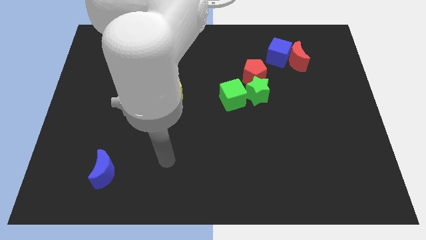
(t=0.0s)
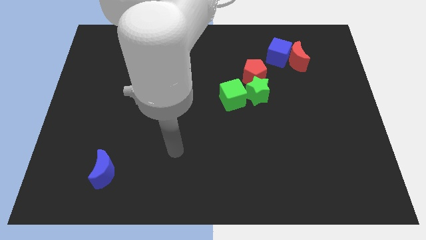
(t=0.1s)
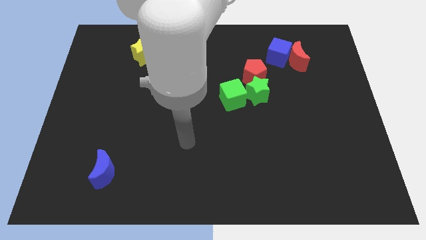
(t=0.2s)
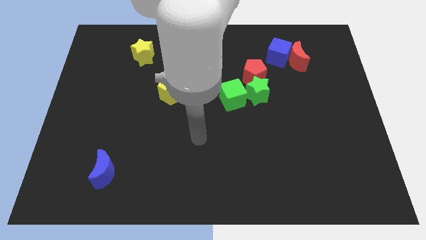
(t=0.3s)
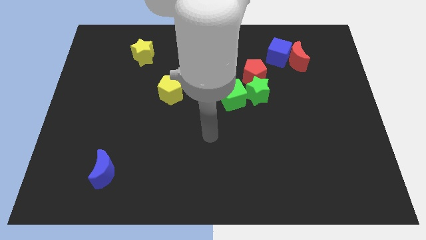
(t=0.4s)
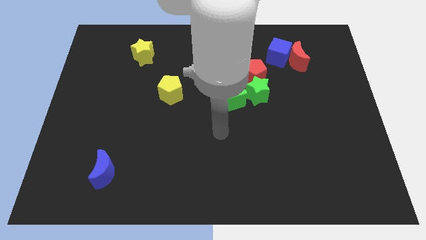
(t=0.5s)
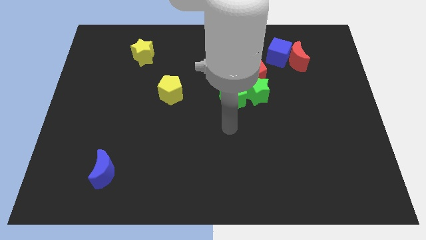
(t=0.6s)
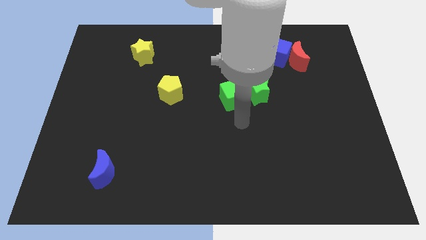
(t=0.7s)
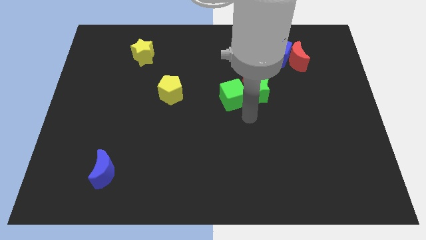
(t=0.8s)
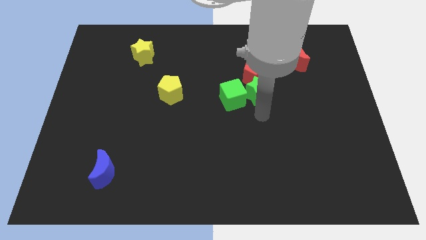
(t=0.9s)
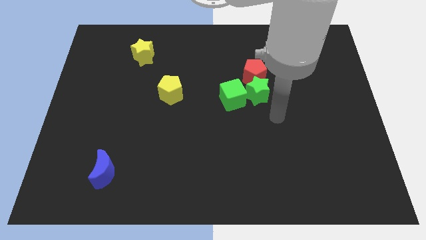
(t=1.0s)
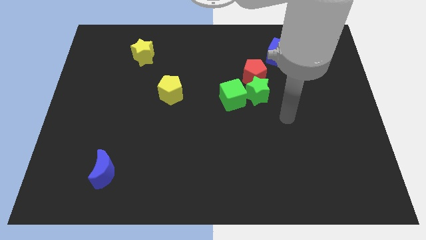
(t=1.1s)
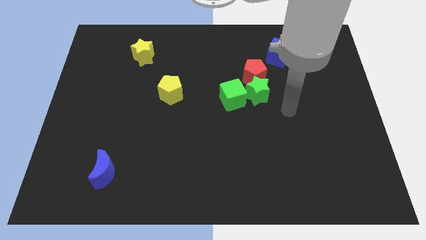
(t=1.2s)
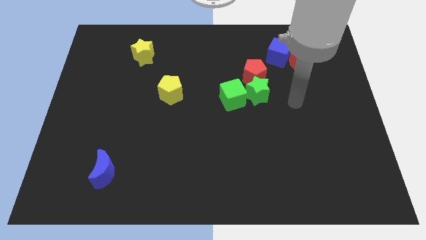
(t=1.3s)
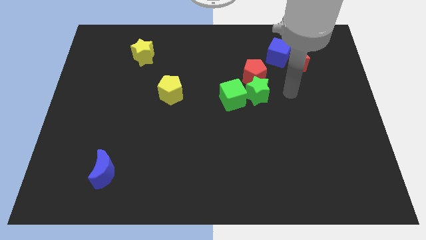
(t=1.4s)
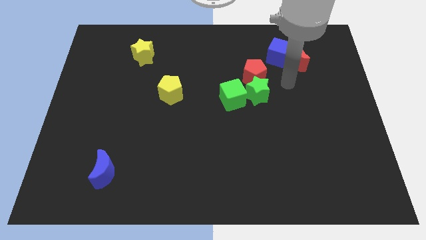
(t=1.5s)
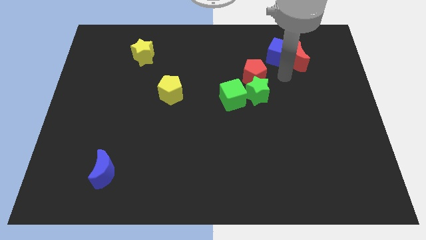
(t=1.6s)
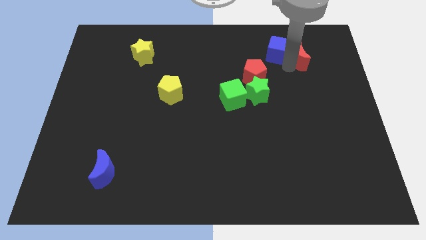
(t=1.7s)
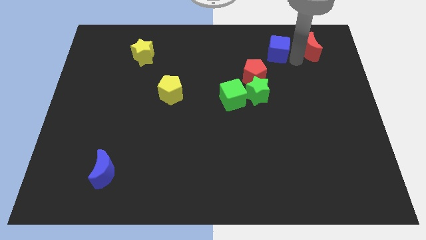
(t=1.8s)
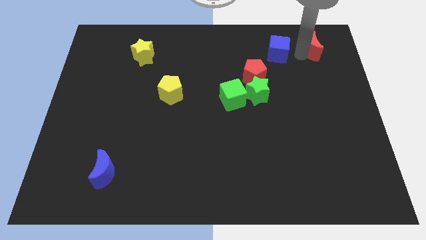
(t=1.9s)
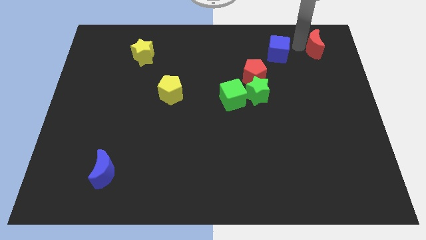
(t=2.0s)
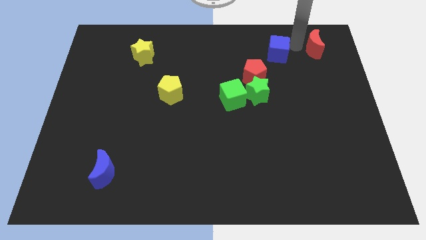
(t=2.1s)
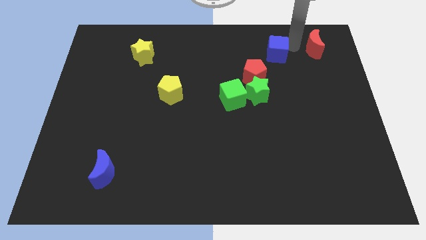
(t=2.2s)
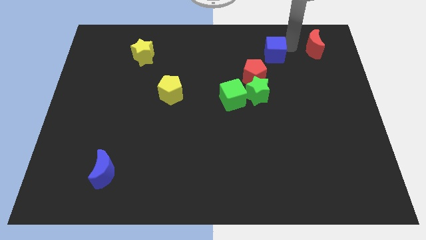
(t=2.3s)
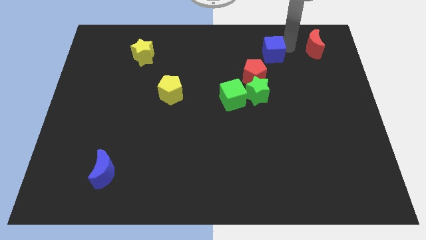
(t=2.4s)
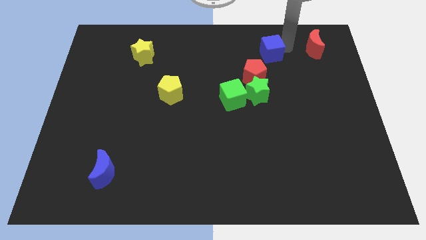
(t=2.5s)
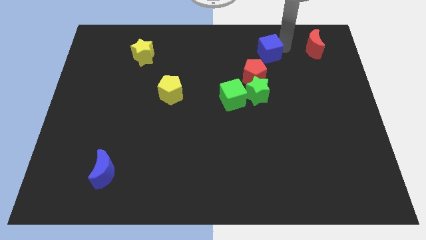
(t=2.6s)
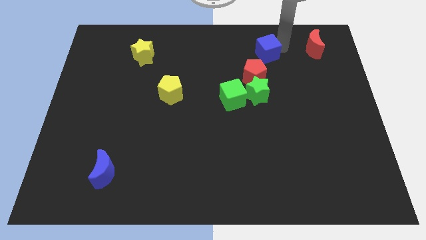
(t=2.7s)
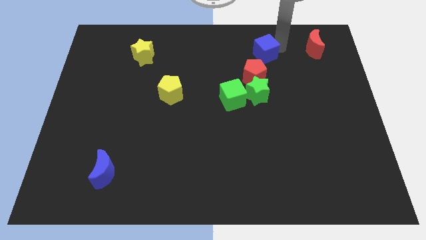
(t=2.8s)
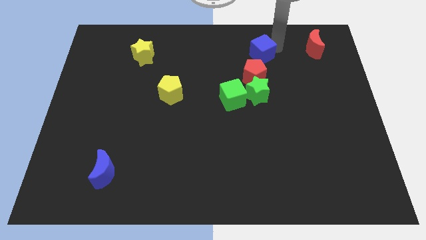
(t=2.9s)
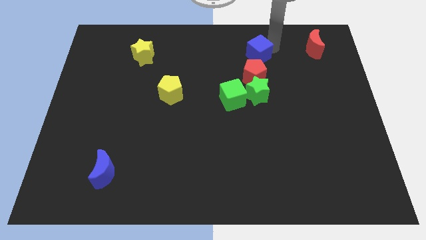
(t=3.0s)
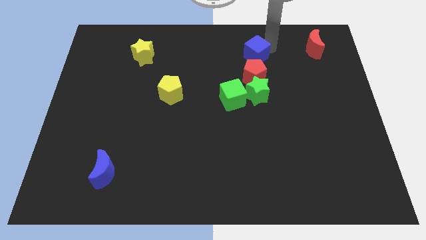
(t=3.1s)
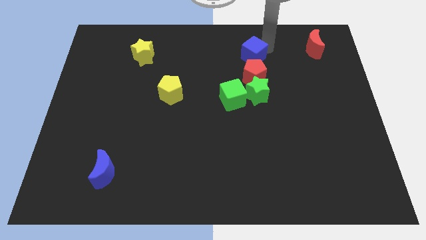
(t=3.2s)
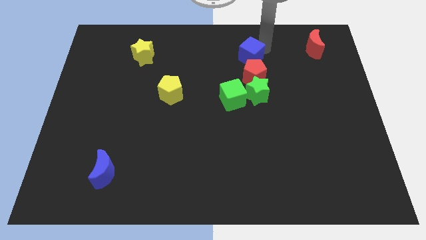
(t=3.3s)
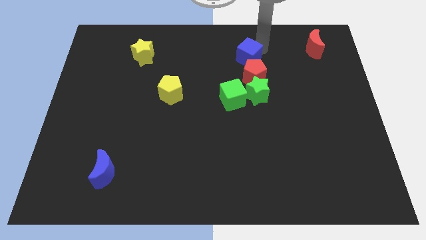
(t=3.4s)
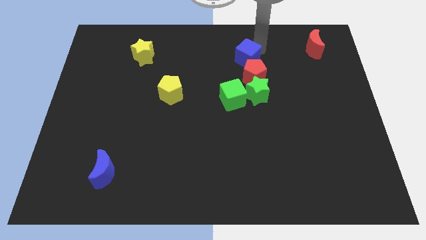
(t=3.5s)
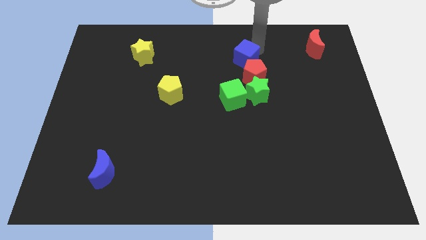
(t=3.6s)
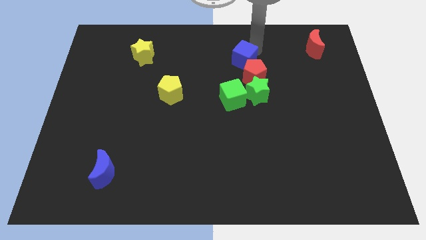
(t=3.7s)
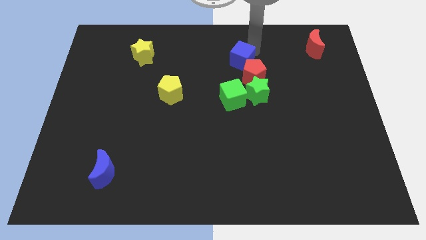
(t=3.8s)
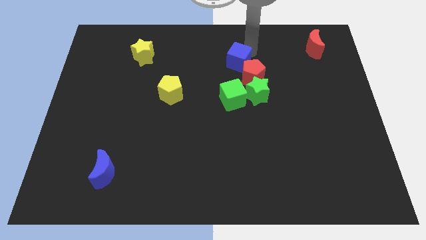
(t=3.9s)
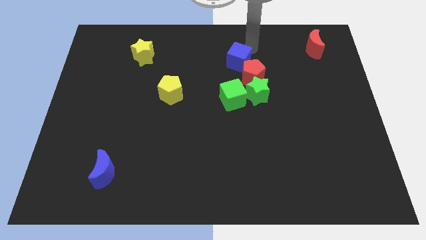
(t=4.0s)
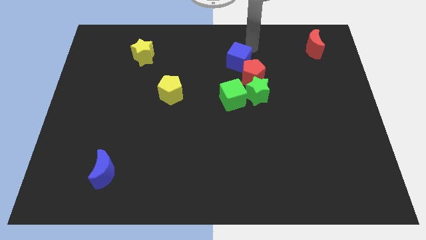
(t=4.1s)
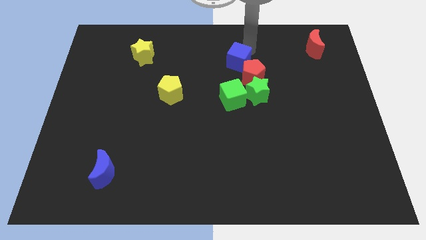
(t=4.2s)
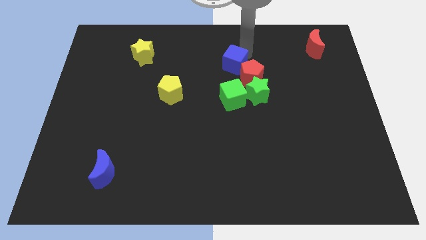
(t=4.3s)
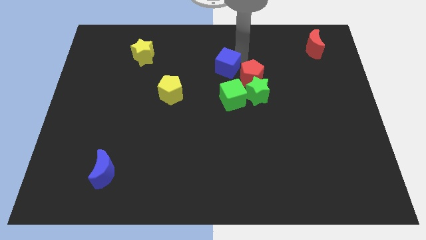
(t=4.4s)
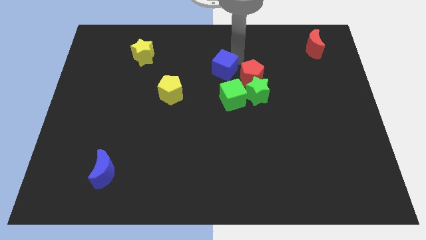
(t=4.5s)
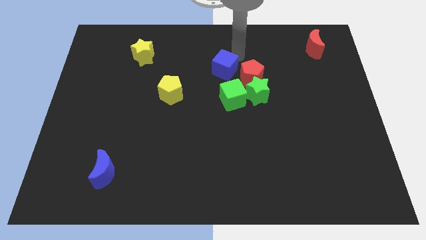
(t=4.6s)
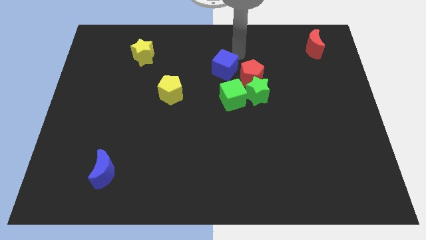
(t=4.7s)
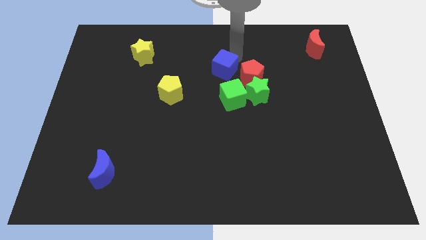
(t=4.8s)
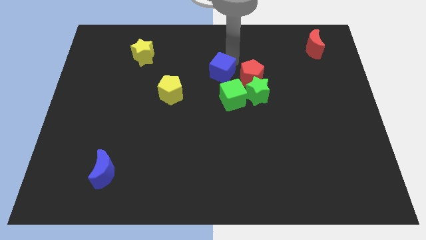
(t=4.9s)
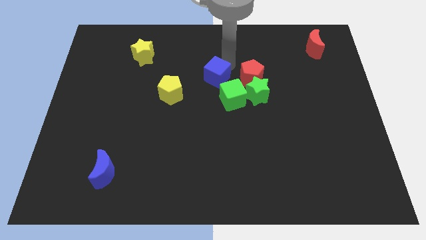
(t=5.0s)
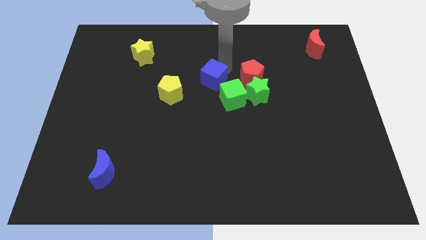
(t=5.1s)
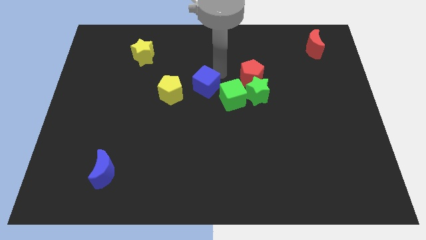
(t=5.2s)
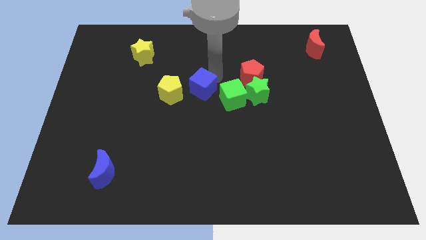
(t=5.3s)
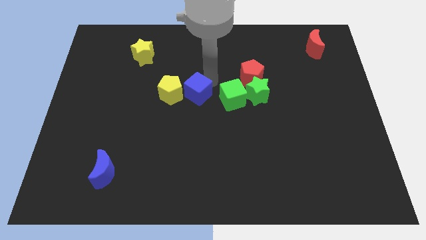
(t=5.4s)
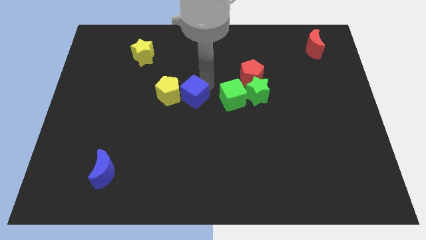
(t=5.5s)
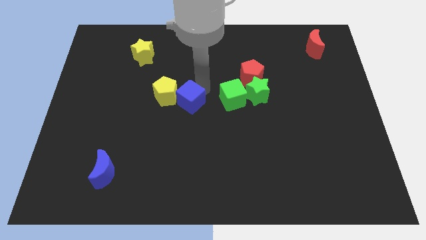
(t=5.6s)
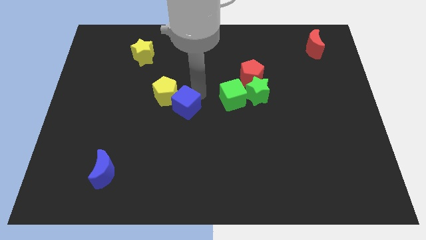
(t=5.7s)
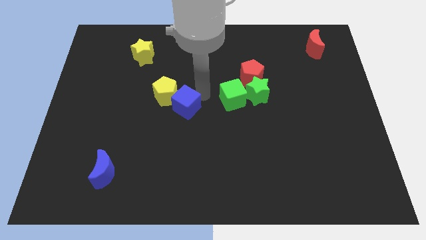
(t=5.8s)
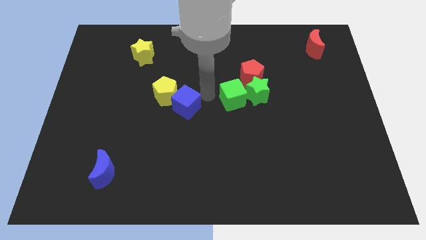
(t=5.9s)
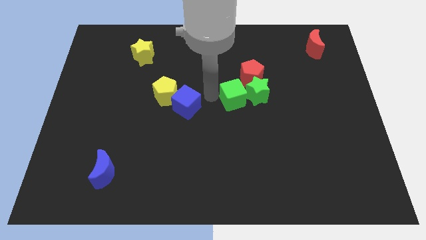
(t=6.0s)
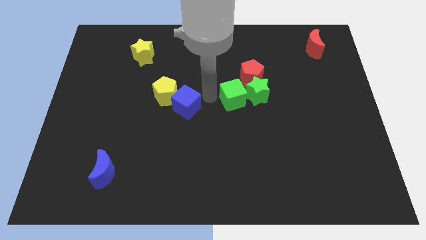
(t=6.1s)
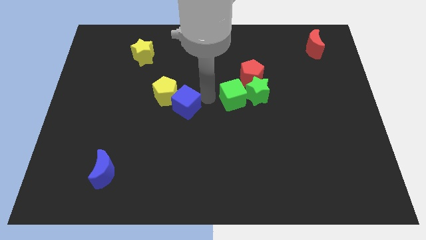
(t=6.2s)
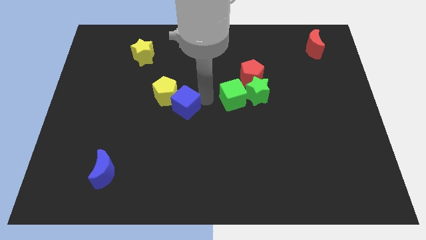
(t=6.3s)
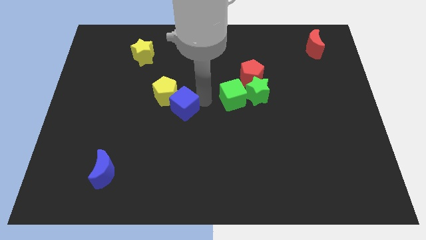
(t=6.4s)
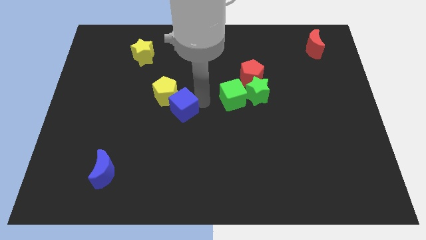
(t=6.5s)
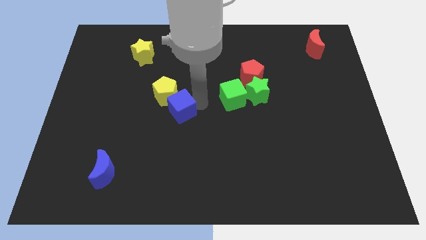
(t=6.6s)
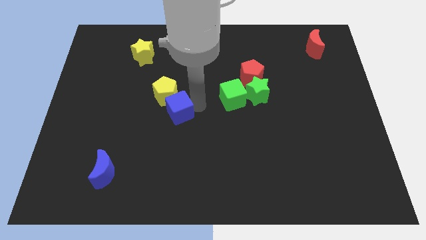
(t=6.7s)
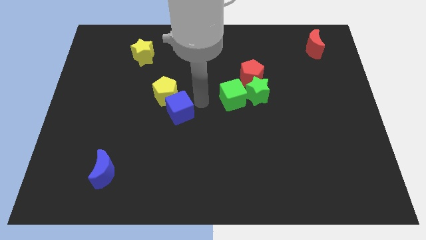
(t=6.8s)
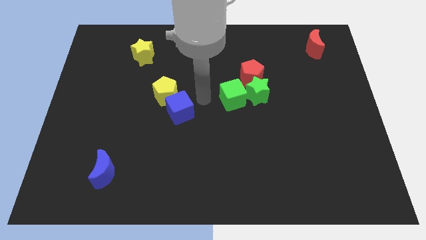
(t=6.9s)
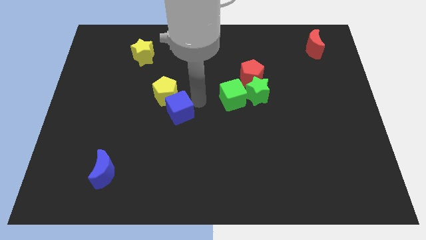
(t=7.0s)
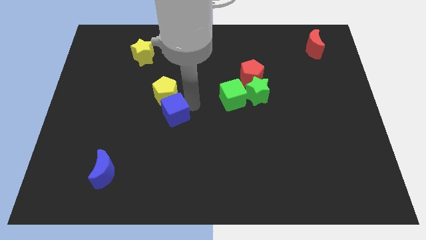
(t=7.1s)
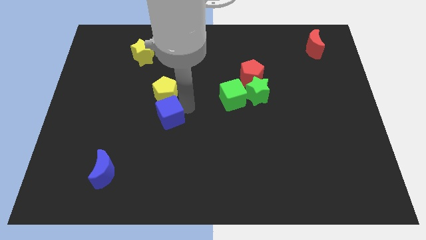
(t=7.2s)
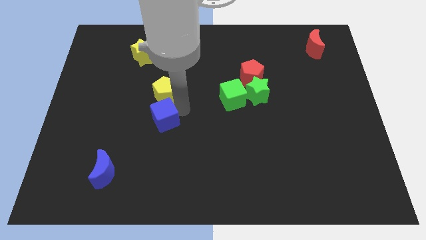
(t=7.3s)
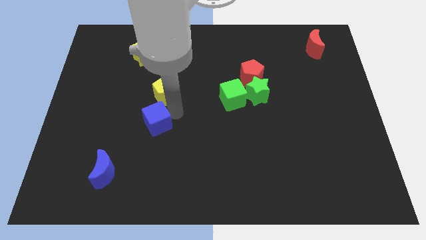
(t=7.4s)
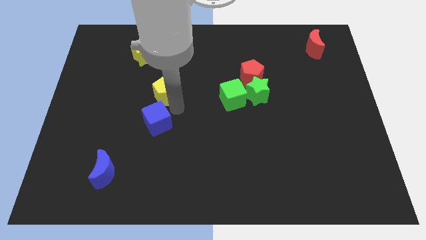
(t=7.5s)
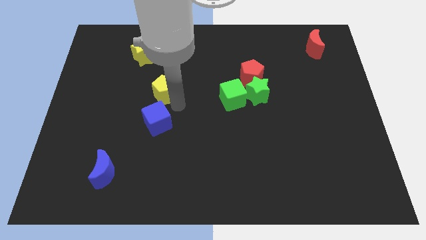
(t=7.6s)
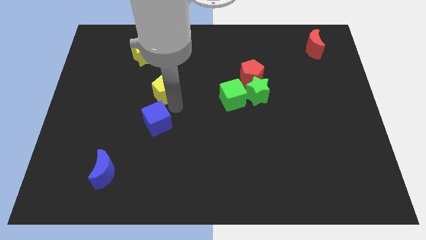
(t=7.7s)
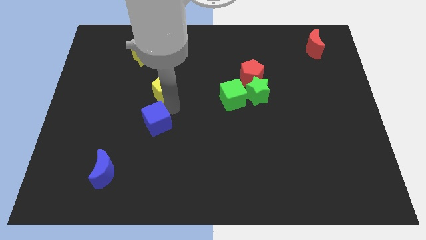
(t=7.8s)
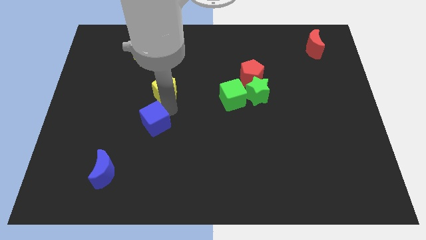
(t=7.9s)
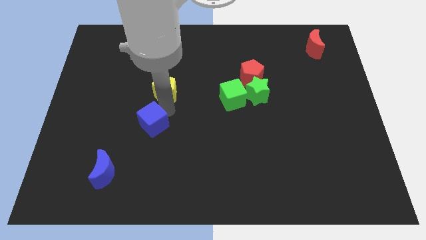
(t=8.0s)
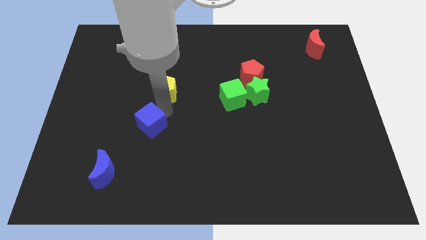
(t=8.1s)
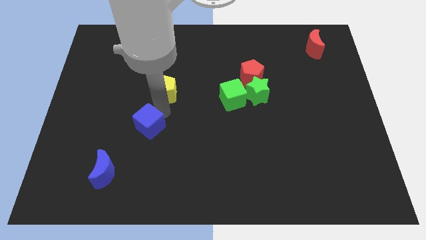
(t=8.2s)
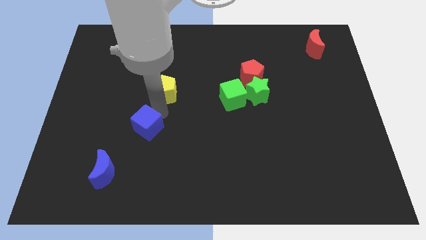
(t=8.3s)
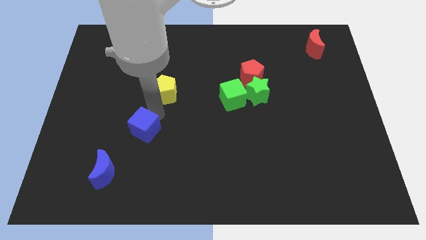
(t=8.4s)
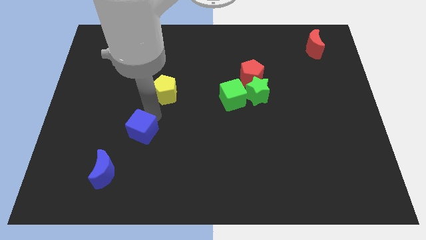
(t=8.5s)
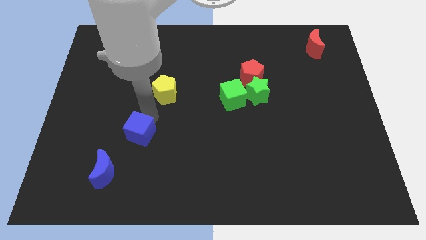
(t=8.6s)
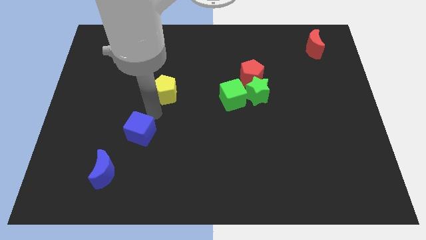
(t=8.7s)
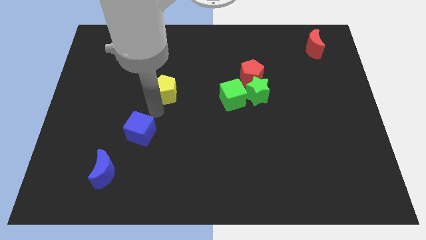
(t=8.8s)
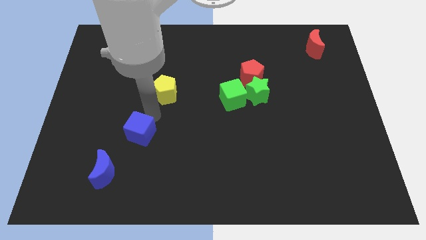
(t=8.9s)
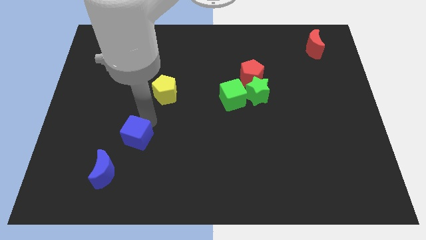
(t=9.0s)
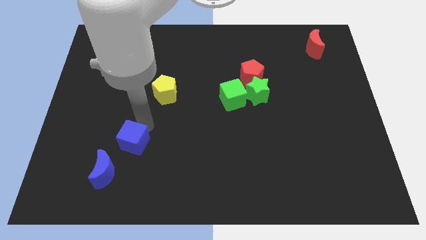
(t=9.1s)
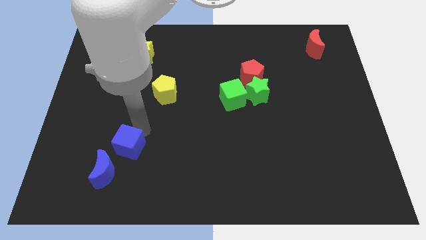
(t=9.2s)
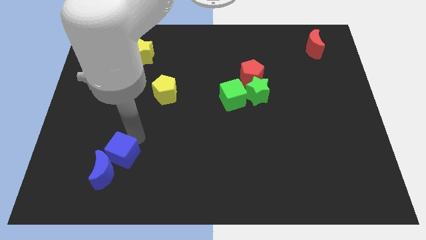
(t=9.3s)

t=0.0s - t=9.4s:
push the blue cube towards the blue moon
